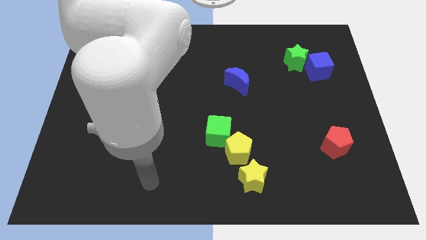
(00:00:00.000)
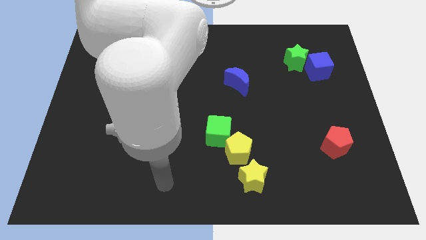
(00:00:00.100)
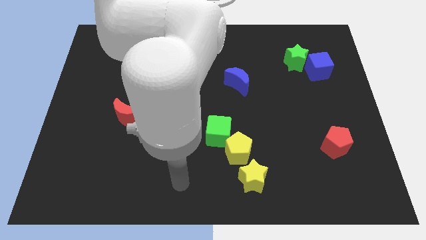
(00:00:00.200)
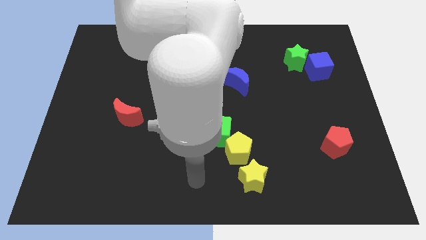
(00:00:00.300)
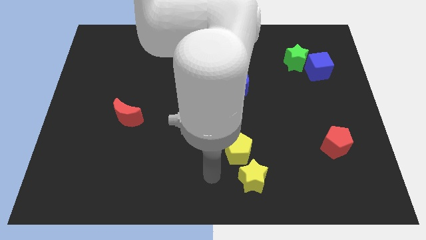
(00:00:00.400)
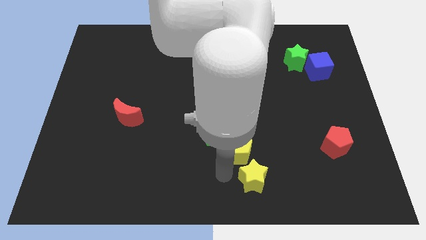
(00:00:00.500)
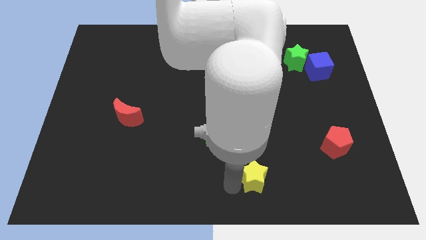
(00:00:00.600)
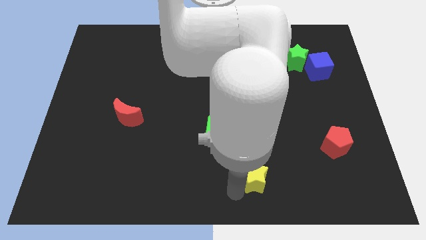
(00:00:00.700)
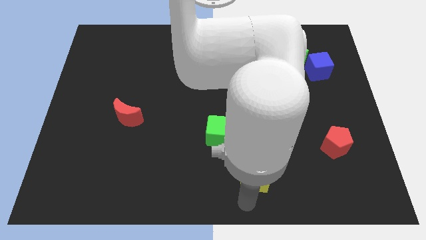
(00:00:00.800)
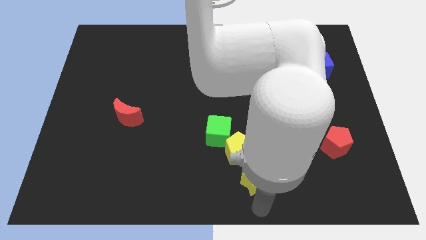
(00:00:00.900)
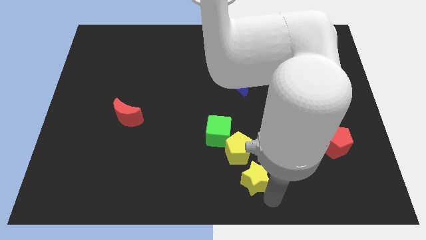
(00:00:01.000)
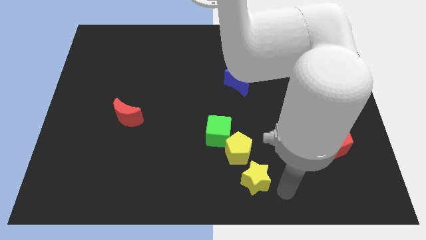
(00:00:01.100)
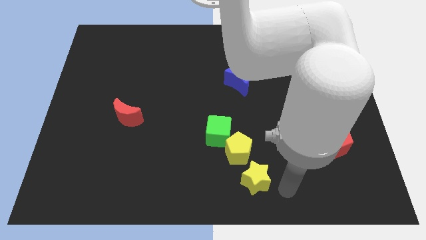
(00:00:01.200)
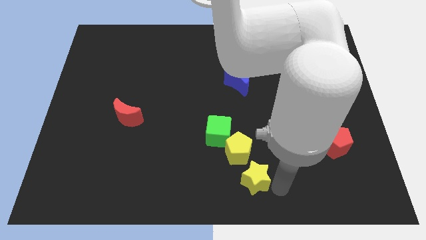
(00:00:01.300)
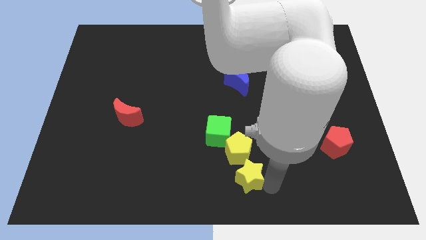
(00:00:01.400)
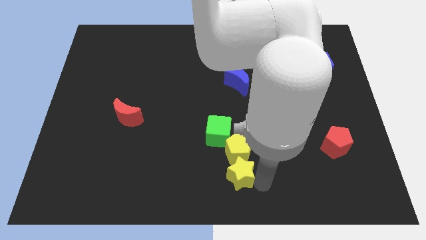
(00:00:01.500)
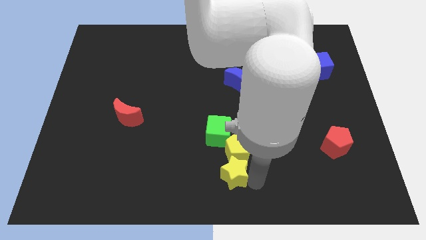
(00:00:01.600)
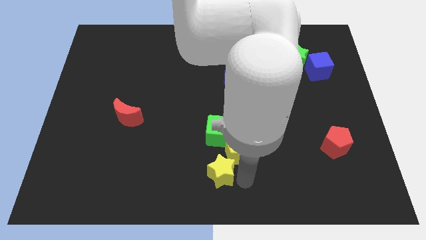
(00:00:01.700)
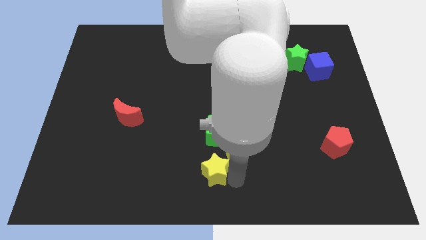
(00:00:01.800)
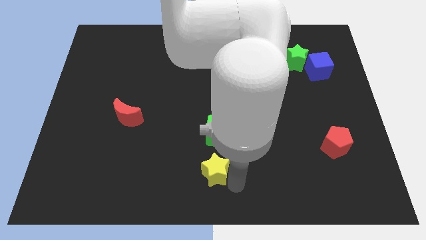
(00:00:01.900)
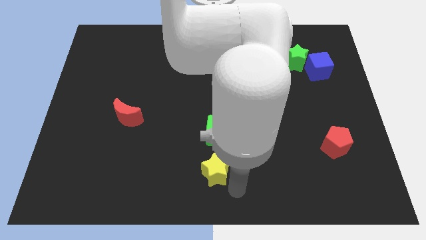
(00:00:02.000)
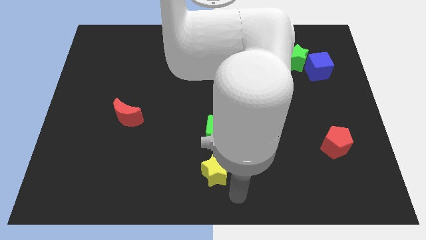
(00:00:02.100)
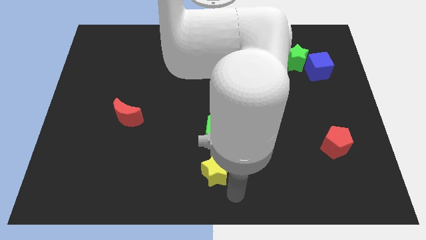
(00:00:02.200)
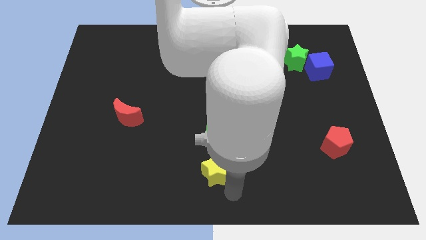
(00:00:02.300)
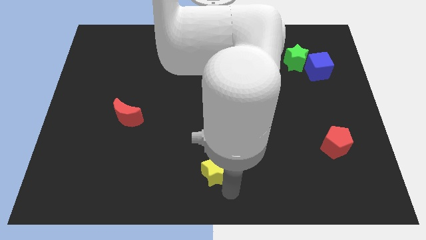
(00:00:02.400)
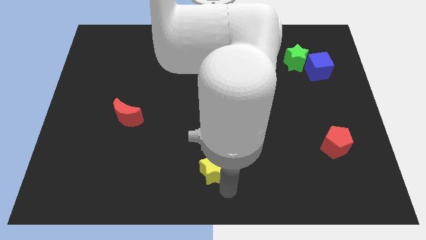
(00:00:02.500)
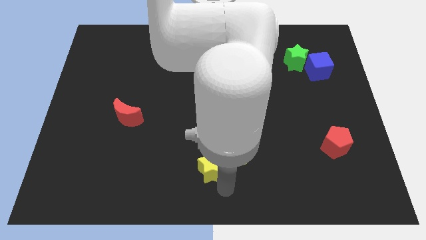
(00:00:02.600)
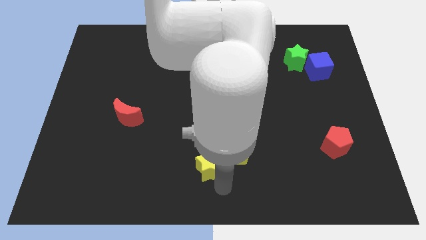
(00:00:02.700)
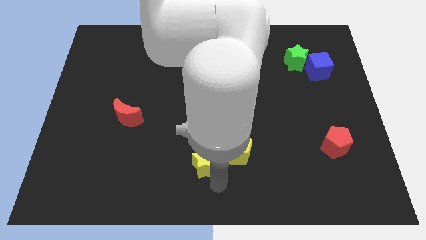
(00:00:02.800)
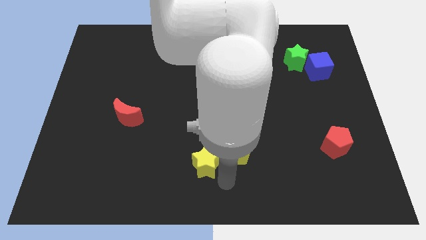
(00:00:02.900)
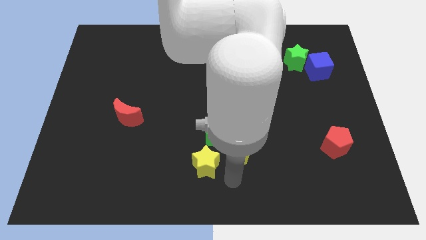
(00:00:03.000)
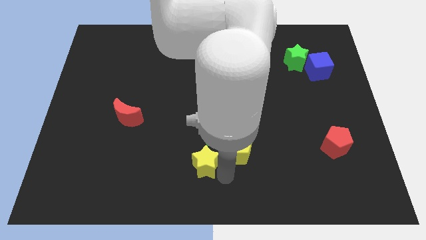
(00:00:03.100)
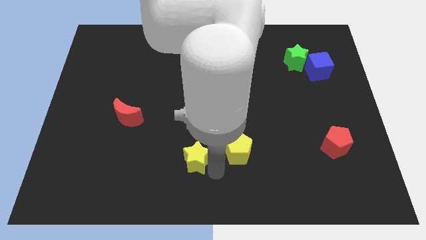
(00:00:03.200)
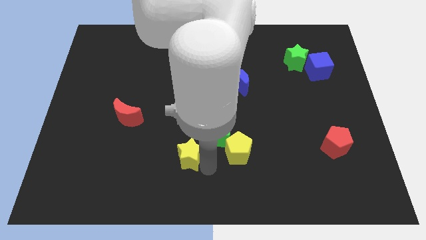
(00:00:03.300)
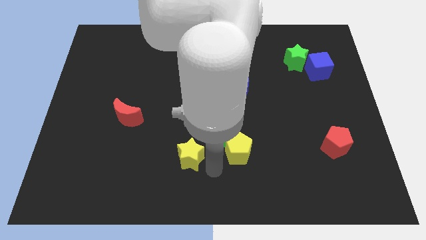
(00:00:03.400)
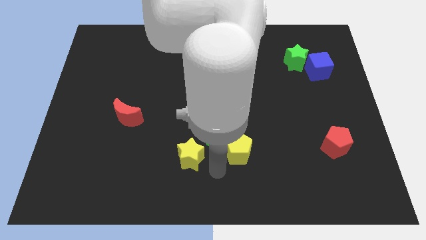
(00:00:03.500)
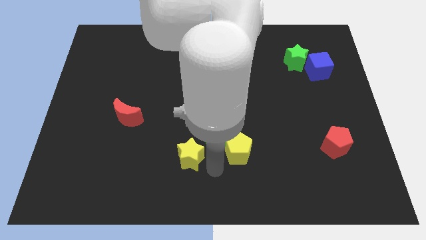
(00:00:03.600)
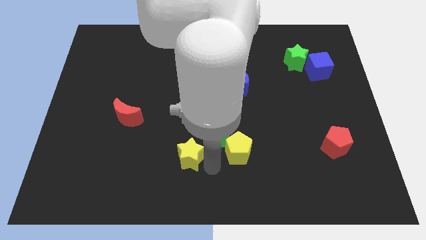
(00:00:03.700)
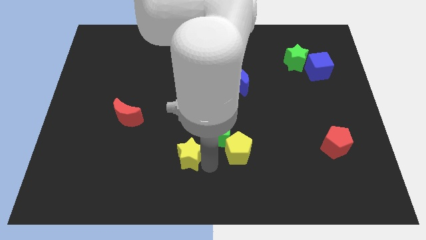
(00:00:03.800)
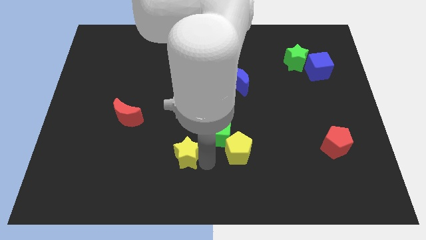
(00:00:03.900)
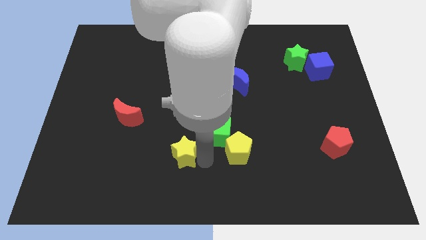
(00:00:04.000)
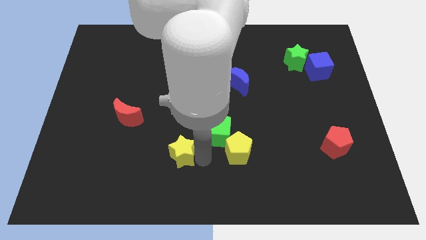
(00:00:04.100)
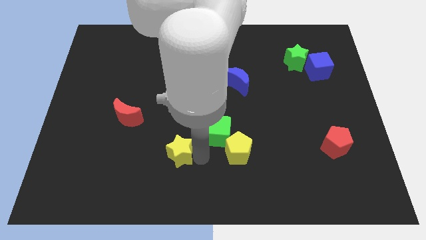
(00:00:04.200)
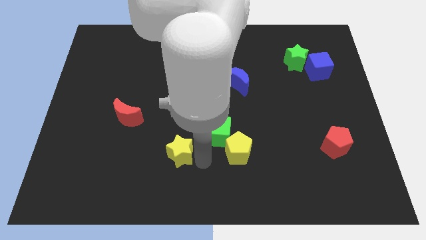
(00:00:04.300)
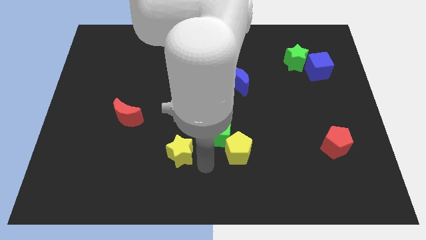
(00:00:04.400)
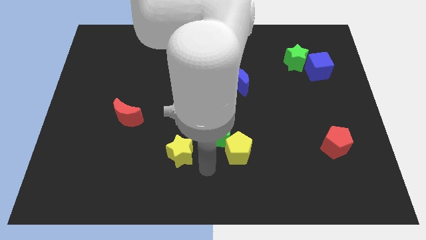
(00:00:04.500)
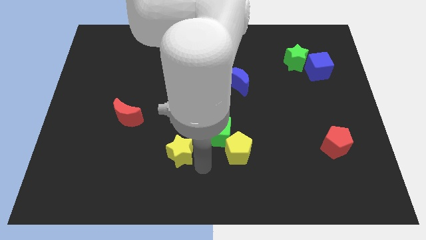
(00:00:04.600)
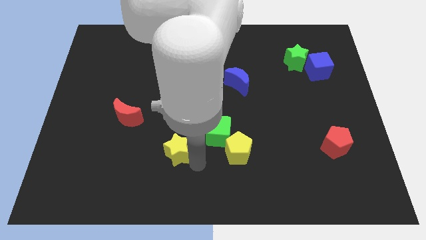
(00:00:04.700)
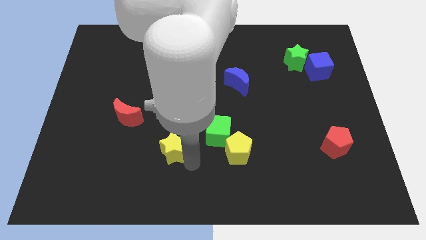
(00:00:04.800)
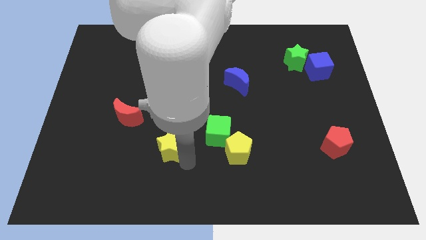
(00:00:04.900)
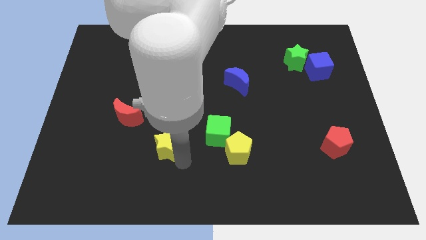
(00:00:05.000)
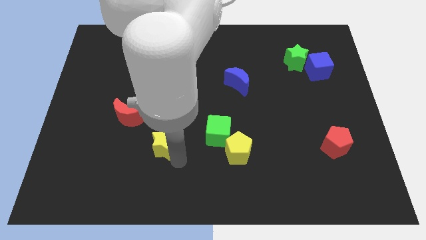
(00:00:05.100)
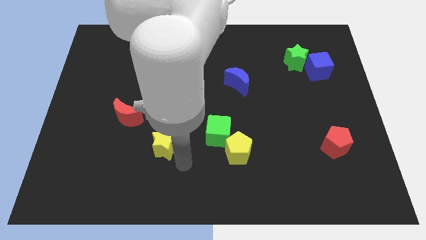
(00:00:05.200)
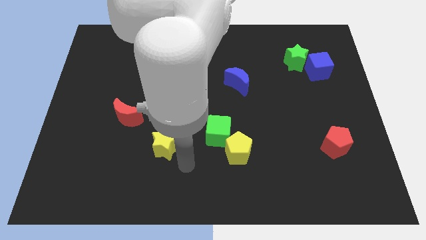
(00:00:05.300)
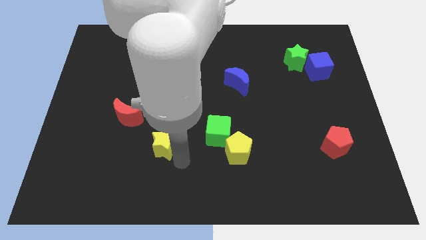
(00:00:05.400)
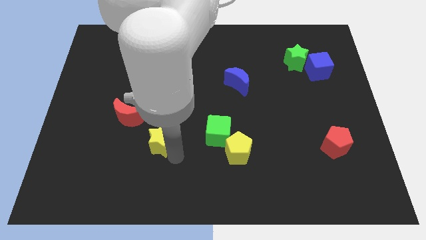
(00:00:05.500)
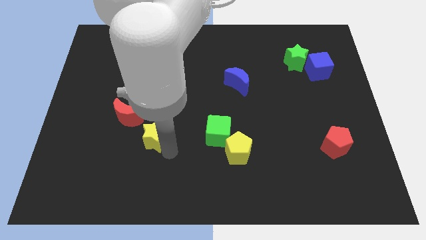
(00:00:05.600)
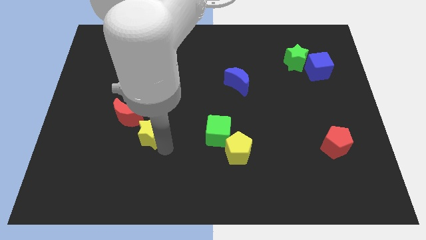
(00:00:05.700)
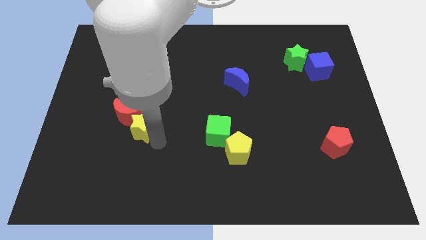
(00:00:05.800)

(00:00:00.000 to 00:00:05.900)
put the yellow star to the red moon
